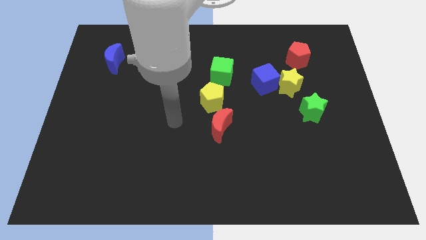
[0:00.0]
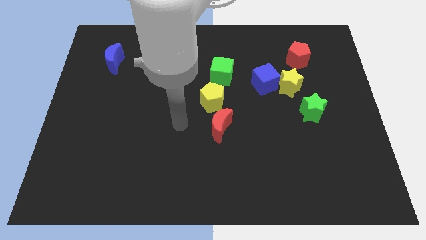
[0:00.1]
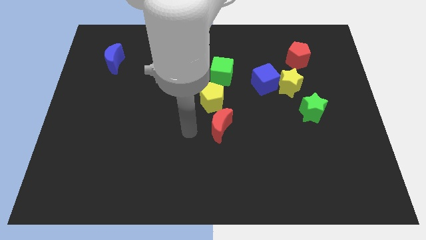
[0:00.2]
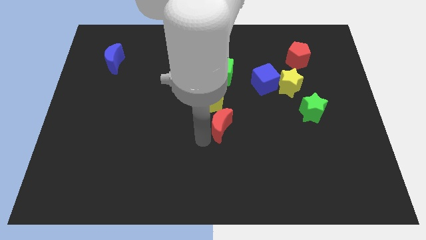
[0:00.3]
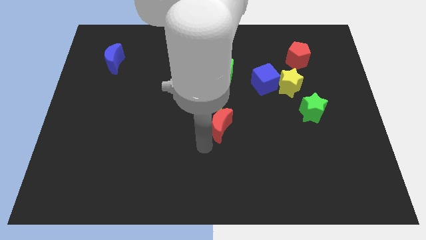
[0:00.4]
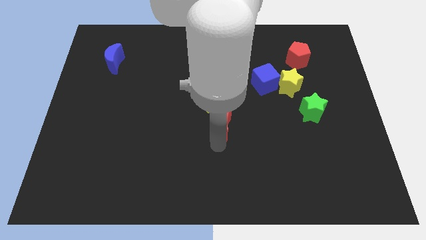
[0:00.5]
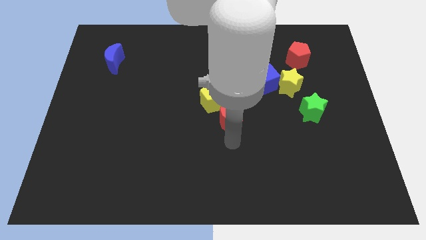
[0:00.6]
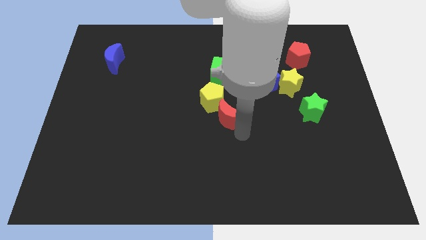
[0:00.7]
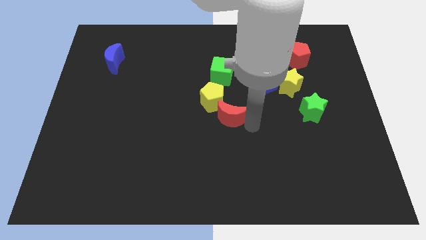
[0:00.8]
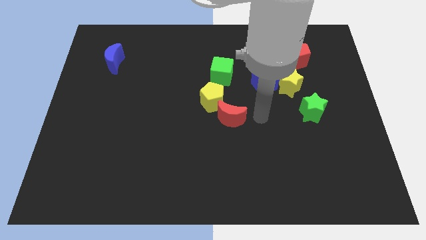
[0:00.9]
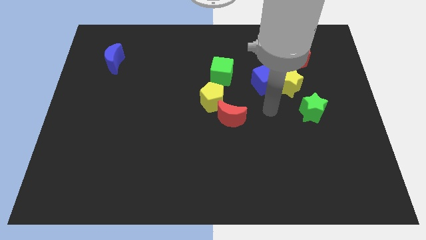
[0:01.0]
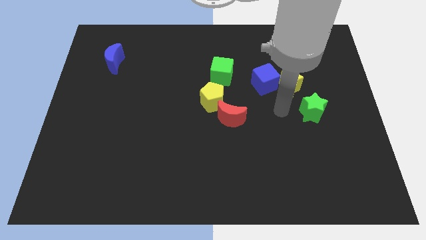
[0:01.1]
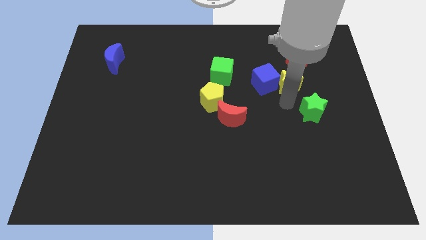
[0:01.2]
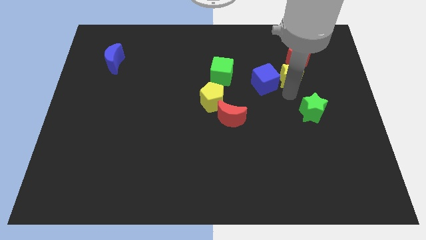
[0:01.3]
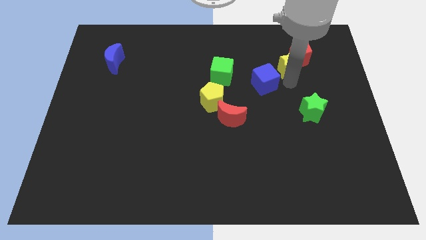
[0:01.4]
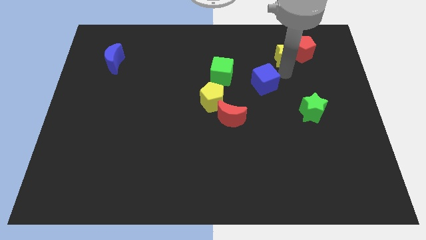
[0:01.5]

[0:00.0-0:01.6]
separate the blue cube from the yellow star

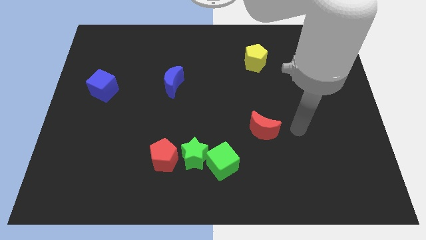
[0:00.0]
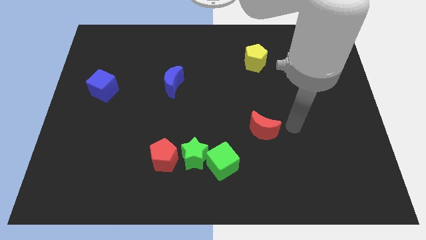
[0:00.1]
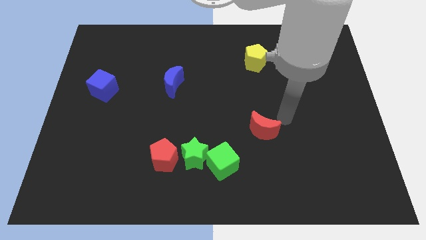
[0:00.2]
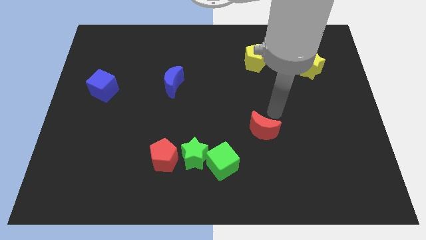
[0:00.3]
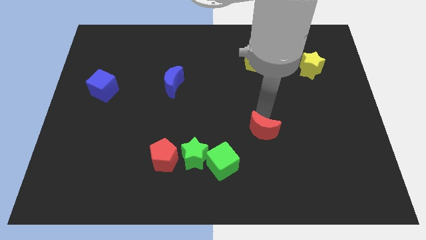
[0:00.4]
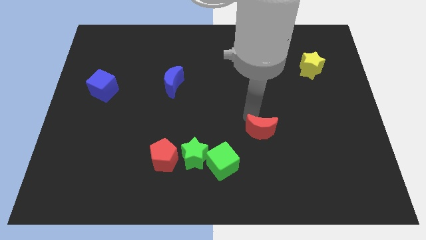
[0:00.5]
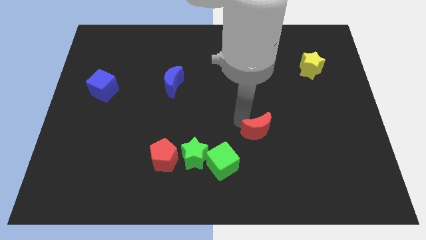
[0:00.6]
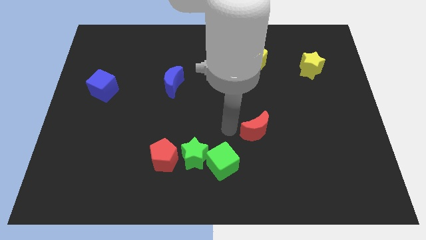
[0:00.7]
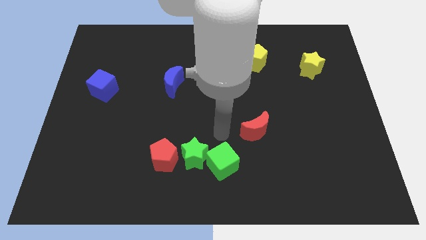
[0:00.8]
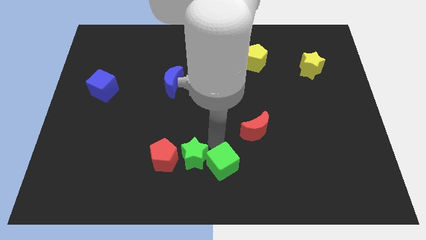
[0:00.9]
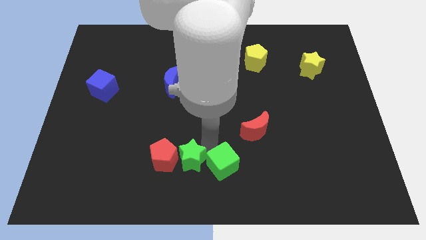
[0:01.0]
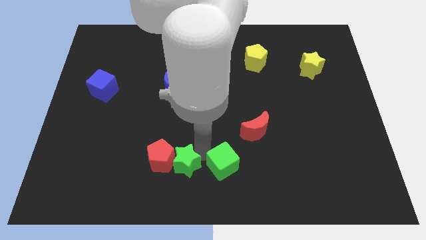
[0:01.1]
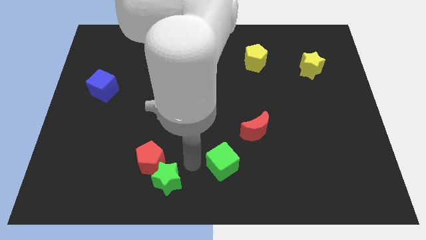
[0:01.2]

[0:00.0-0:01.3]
separate the green cube from the green star

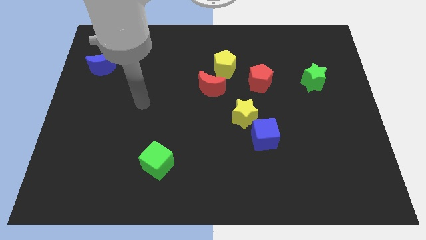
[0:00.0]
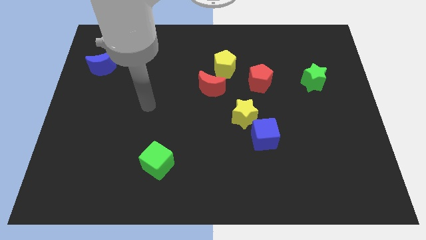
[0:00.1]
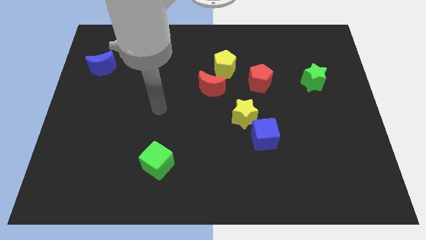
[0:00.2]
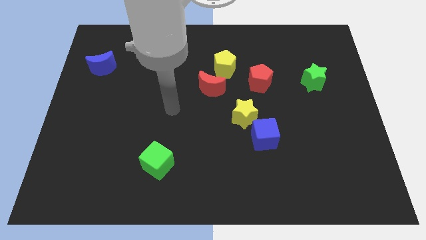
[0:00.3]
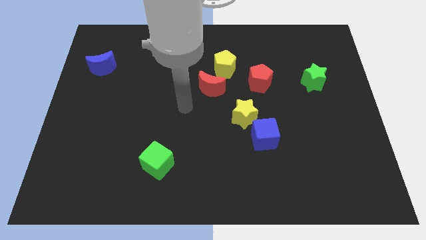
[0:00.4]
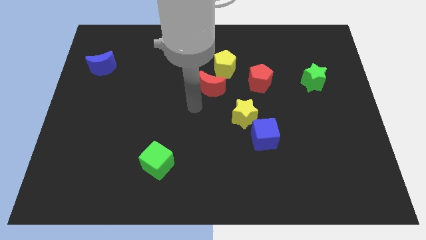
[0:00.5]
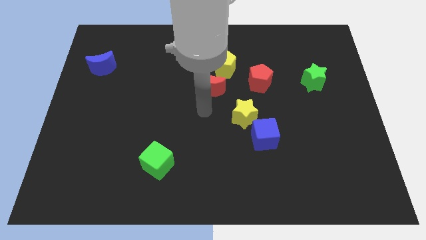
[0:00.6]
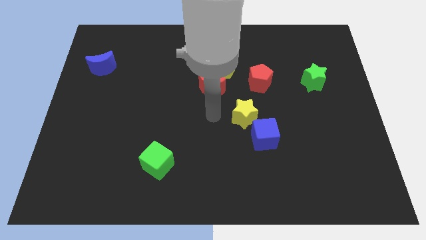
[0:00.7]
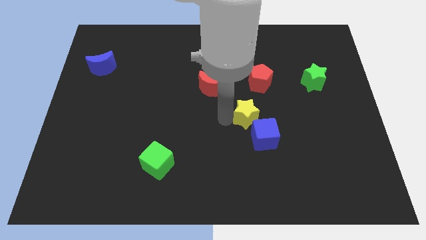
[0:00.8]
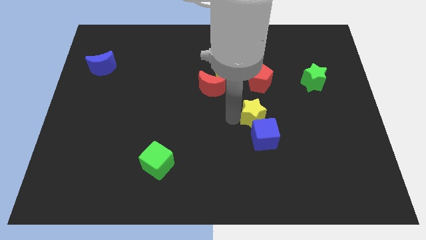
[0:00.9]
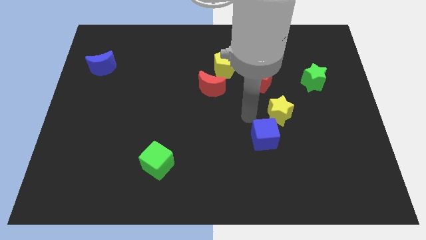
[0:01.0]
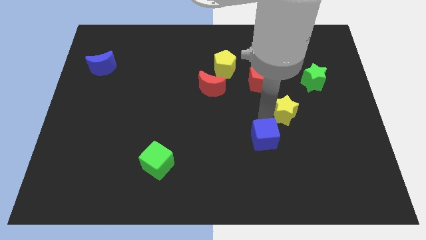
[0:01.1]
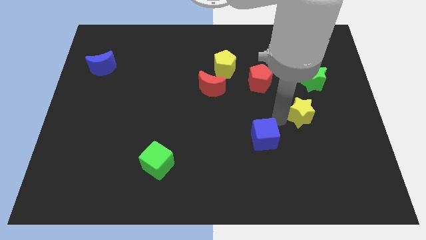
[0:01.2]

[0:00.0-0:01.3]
pull the blue cube apart from the yellow star

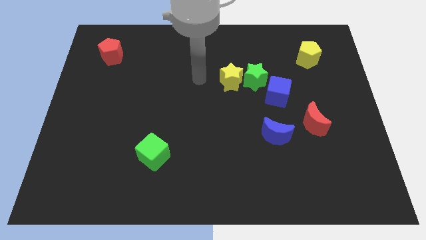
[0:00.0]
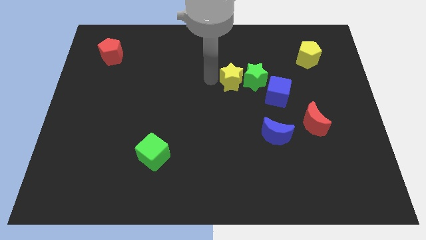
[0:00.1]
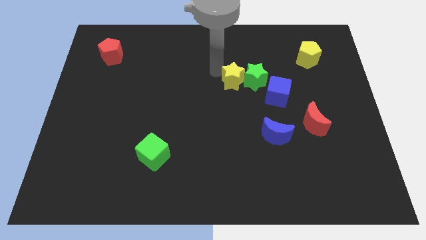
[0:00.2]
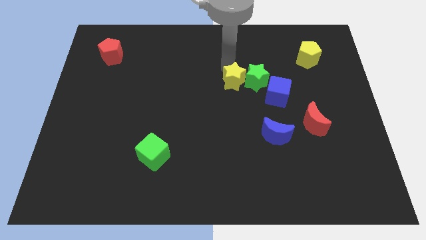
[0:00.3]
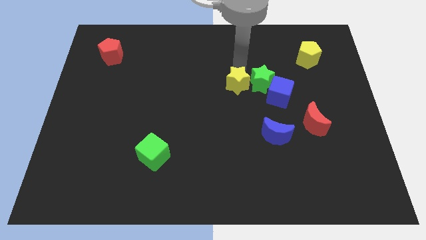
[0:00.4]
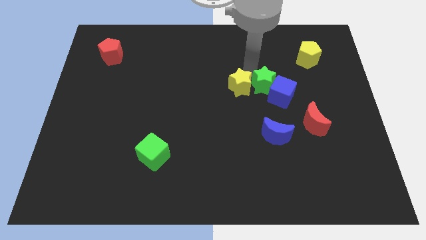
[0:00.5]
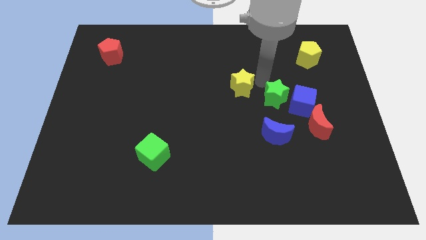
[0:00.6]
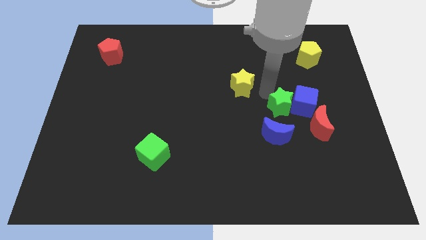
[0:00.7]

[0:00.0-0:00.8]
separate the yellow star from the green star

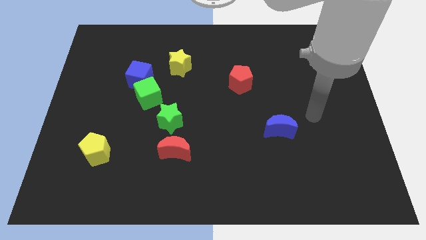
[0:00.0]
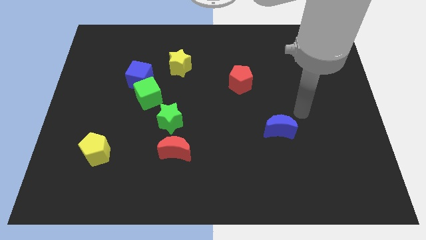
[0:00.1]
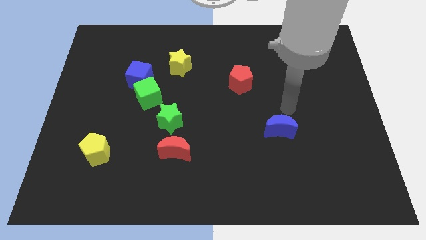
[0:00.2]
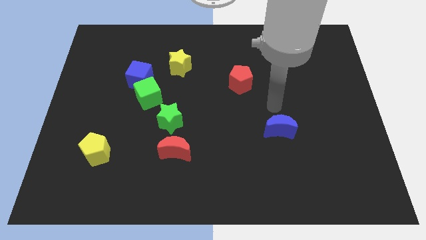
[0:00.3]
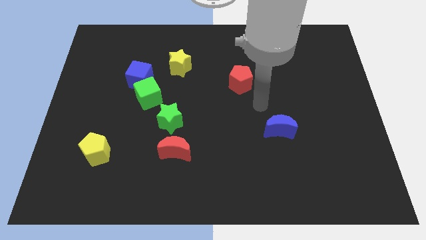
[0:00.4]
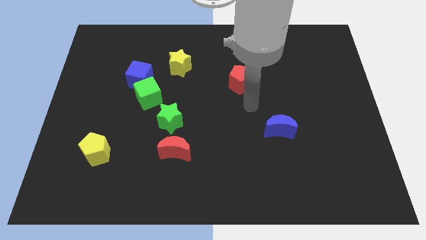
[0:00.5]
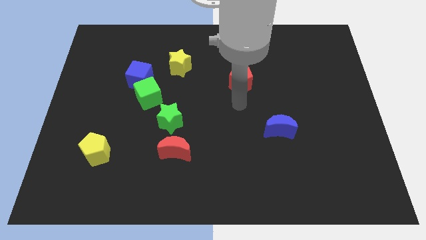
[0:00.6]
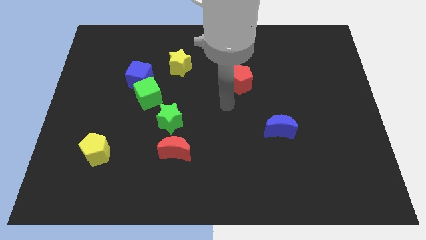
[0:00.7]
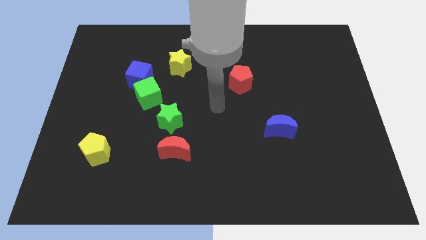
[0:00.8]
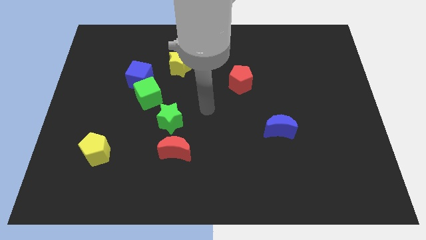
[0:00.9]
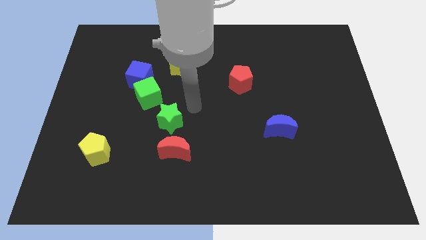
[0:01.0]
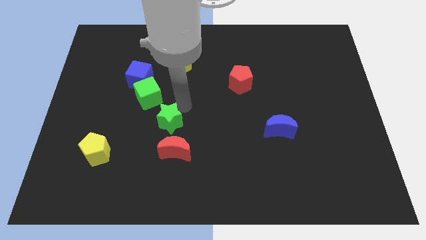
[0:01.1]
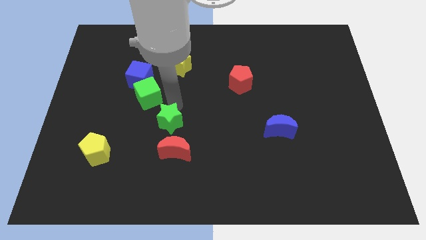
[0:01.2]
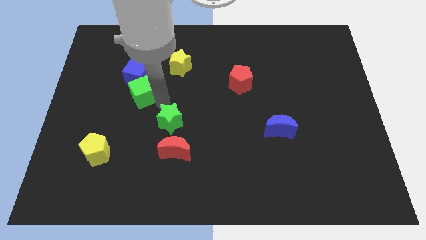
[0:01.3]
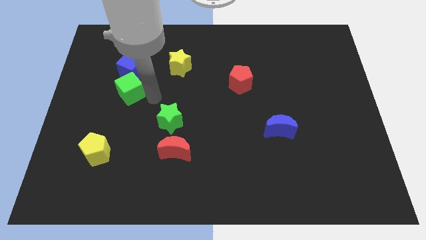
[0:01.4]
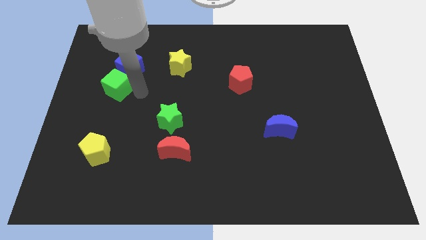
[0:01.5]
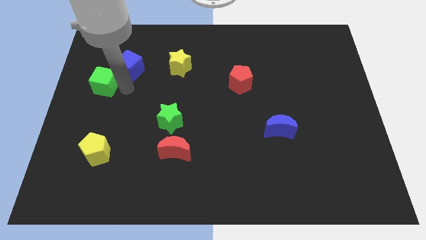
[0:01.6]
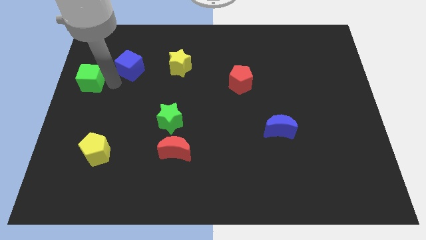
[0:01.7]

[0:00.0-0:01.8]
separate the blue cube from the green cube

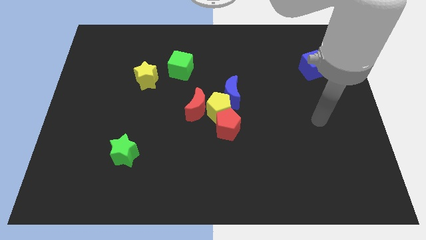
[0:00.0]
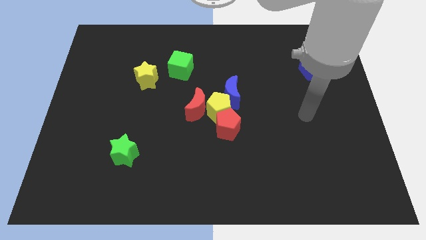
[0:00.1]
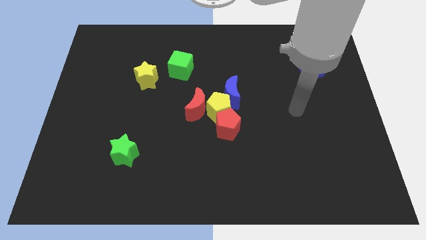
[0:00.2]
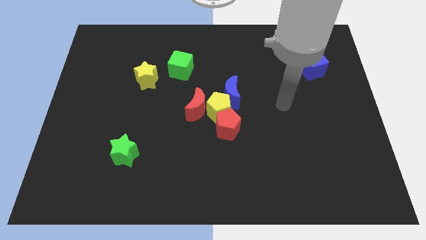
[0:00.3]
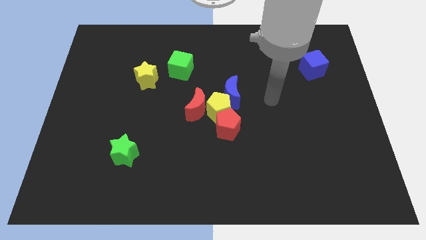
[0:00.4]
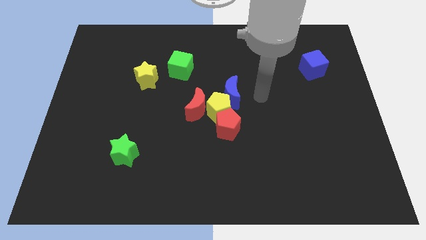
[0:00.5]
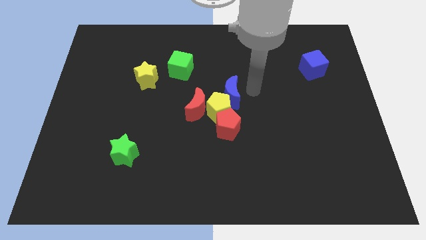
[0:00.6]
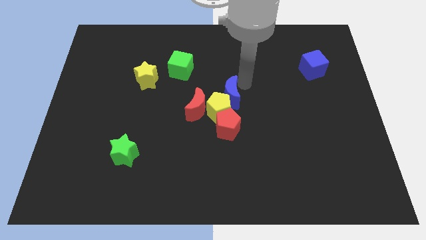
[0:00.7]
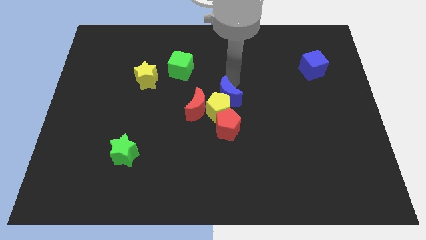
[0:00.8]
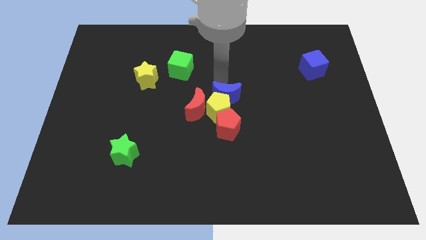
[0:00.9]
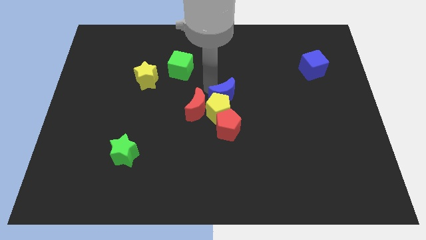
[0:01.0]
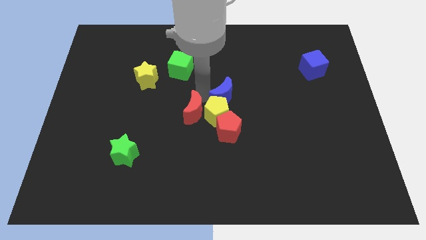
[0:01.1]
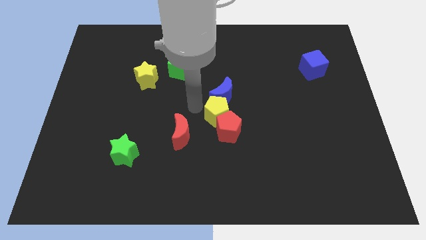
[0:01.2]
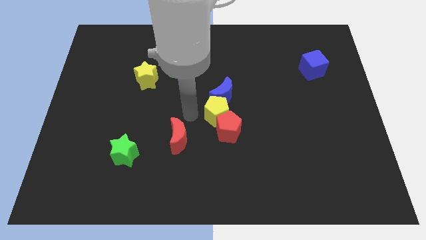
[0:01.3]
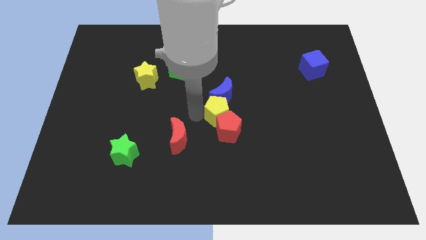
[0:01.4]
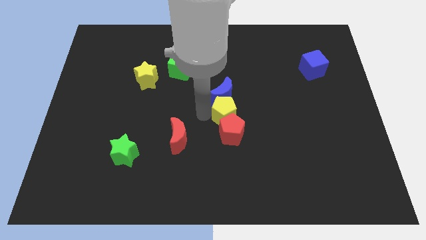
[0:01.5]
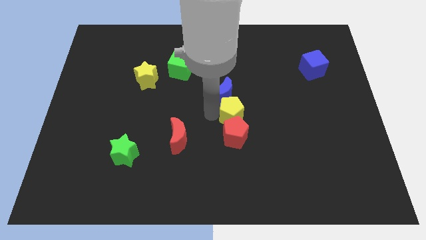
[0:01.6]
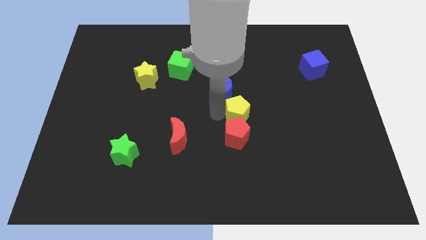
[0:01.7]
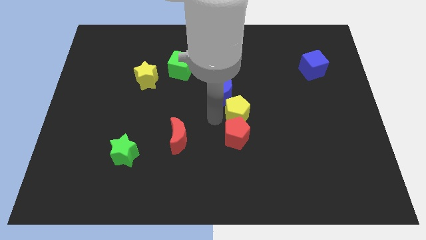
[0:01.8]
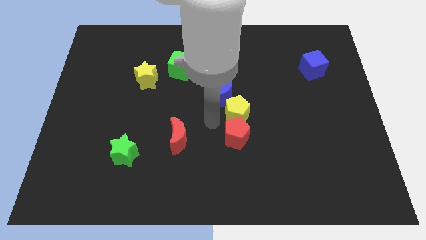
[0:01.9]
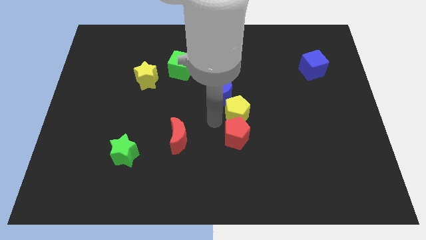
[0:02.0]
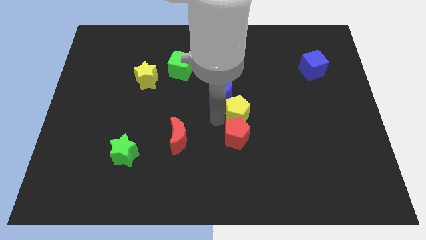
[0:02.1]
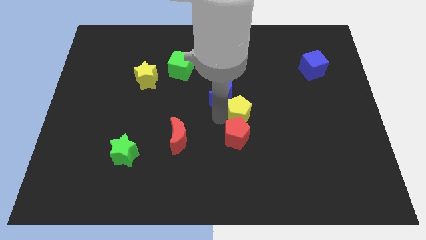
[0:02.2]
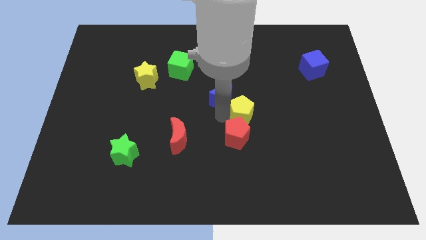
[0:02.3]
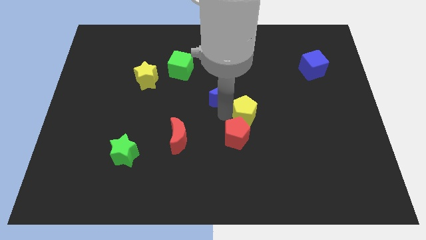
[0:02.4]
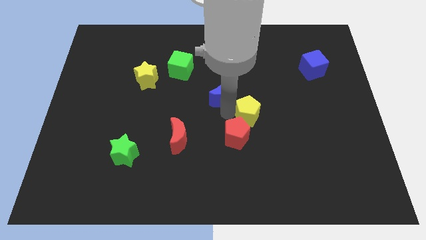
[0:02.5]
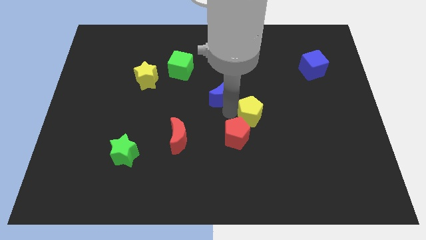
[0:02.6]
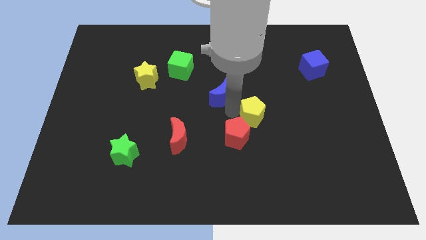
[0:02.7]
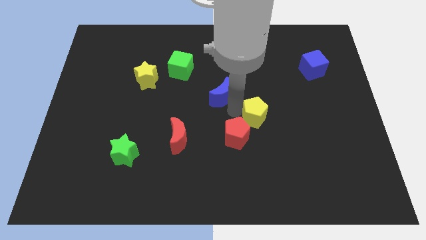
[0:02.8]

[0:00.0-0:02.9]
move the yellow pentagon away from the group of blocks
